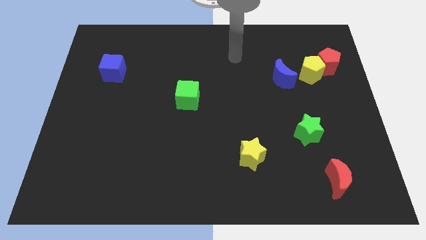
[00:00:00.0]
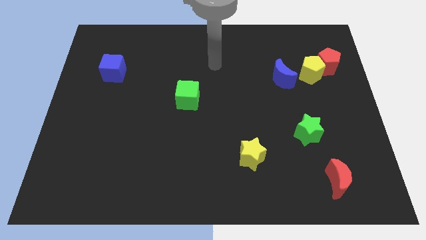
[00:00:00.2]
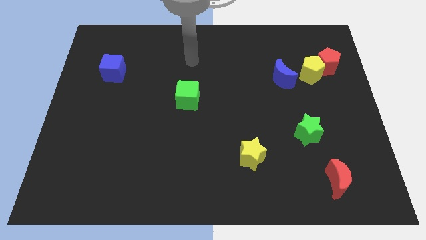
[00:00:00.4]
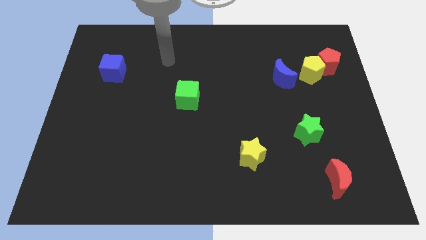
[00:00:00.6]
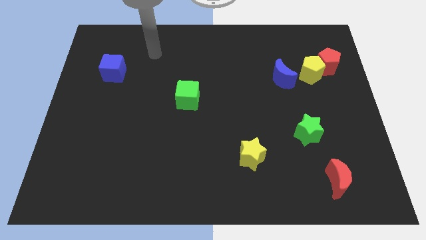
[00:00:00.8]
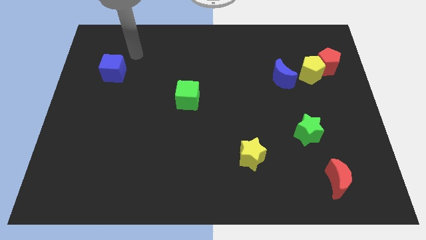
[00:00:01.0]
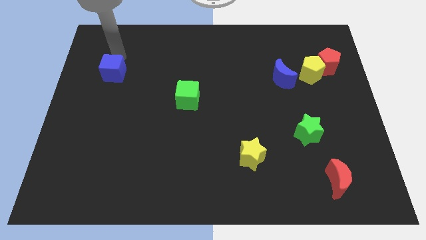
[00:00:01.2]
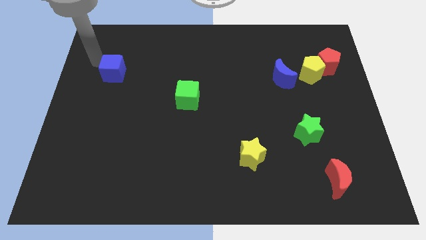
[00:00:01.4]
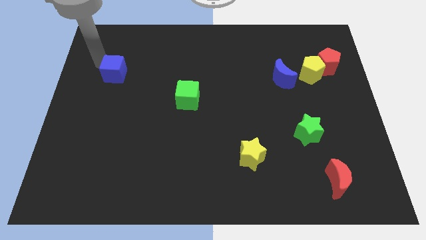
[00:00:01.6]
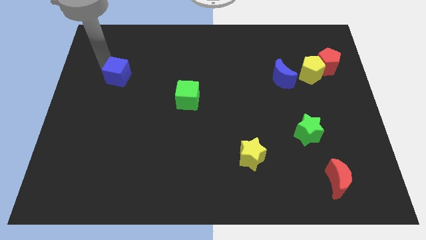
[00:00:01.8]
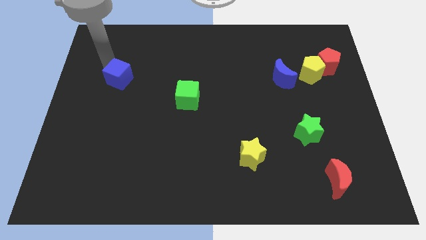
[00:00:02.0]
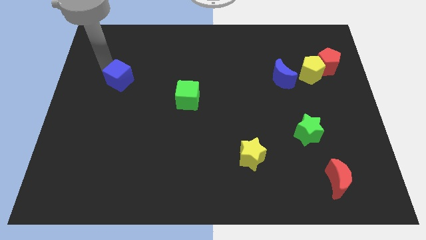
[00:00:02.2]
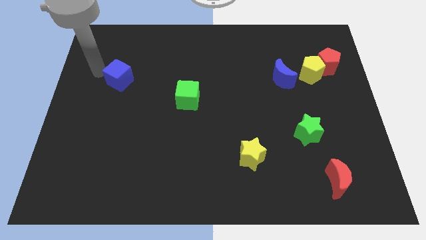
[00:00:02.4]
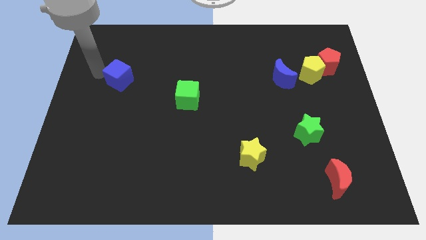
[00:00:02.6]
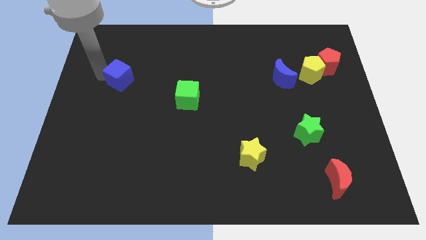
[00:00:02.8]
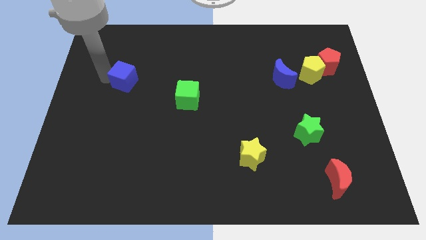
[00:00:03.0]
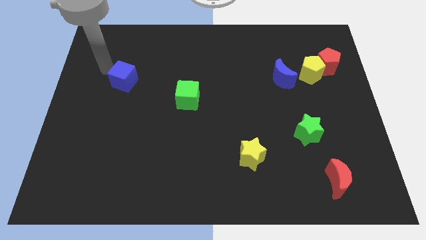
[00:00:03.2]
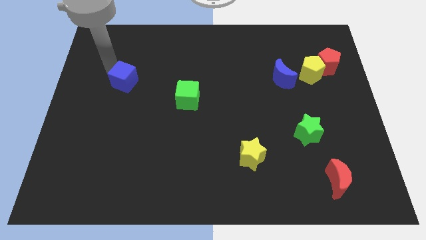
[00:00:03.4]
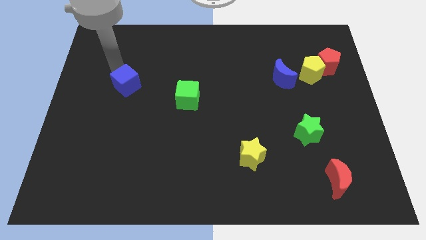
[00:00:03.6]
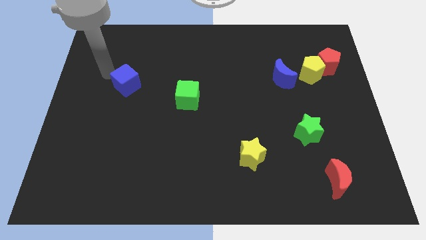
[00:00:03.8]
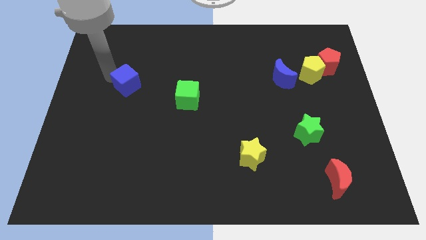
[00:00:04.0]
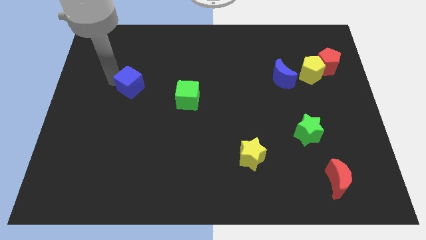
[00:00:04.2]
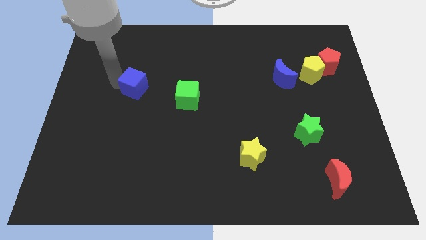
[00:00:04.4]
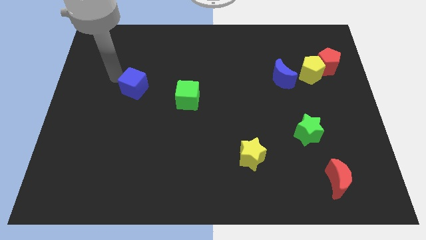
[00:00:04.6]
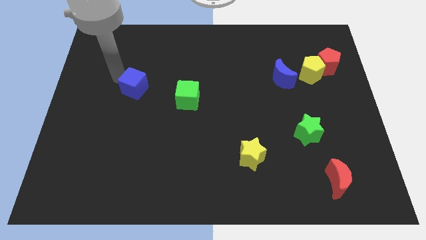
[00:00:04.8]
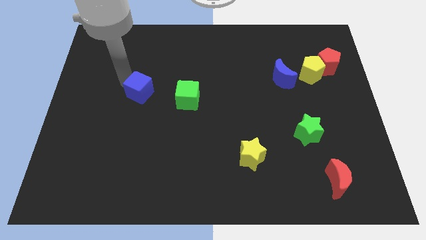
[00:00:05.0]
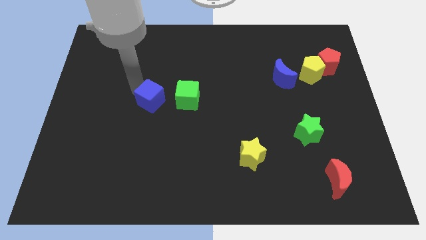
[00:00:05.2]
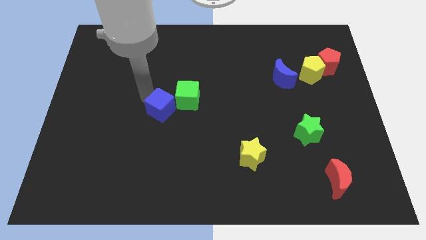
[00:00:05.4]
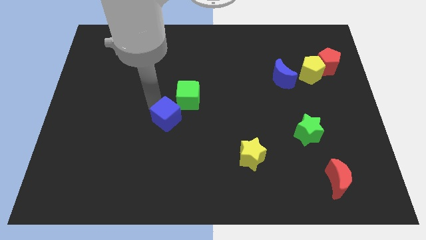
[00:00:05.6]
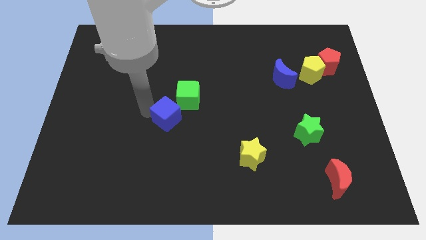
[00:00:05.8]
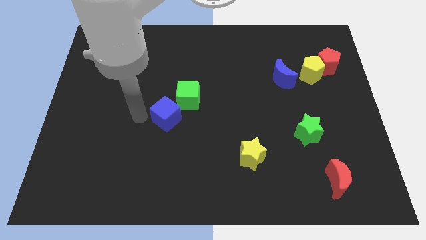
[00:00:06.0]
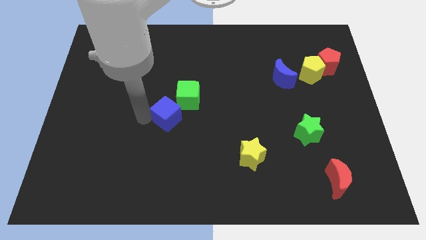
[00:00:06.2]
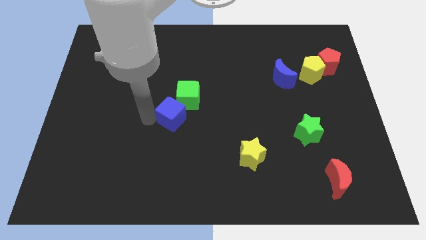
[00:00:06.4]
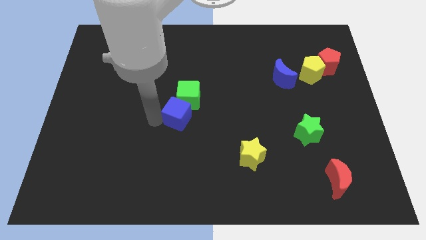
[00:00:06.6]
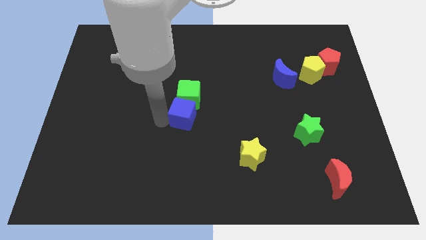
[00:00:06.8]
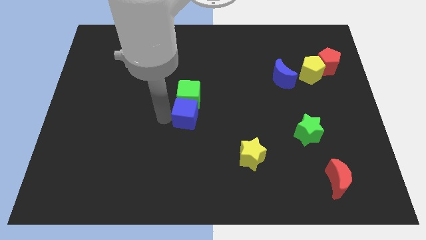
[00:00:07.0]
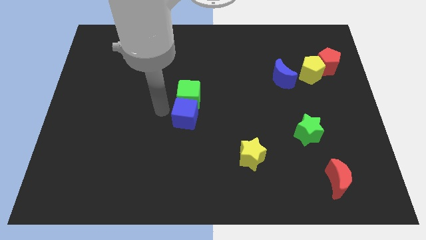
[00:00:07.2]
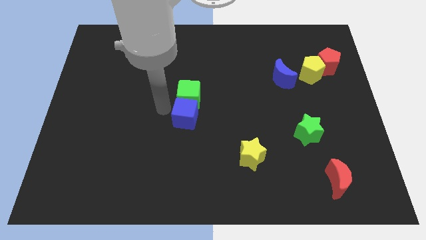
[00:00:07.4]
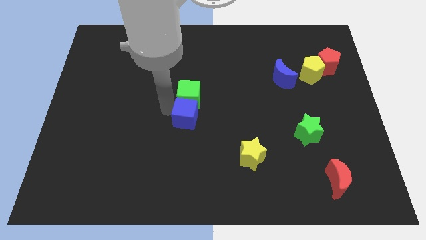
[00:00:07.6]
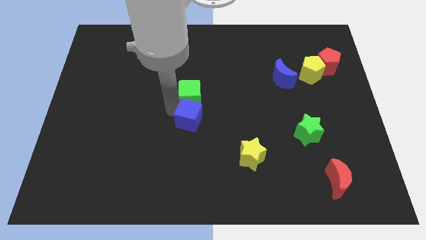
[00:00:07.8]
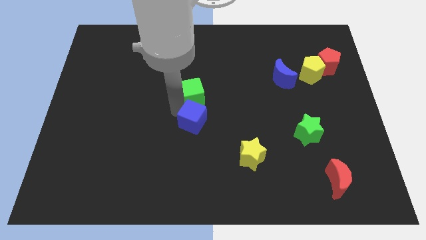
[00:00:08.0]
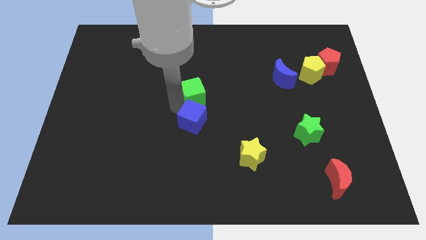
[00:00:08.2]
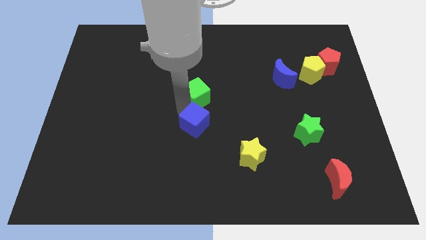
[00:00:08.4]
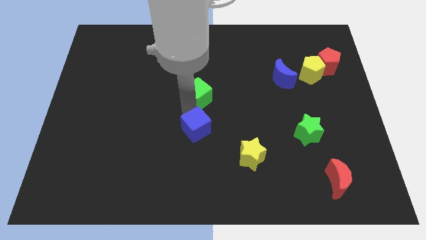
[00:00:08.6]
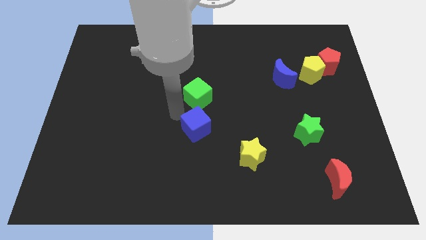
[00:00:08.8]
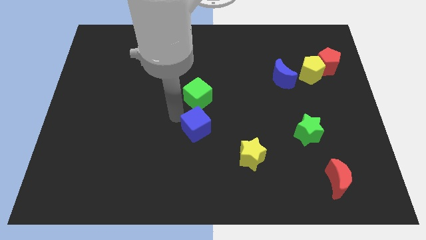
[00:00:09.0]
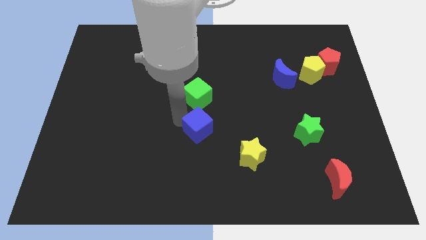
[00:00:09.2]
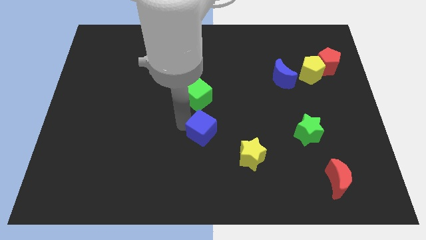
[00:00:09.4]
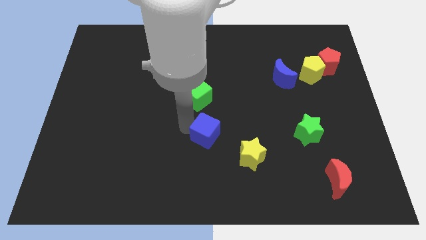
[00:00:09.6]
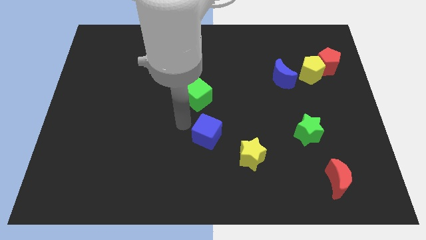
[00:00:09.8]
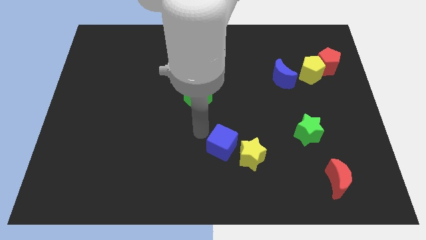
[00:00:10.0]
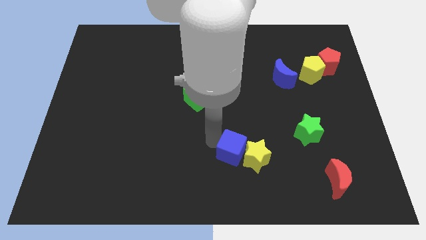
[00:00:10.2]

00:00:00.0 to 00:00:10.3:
put the blue cube close to the yellow star
